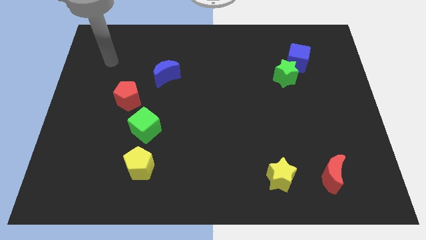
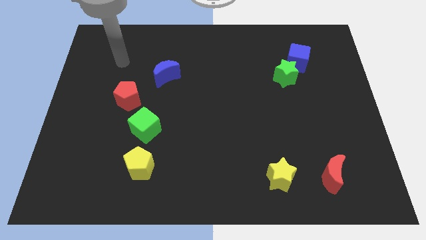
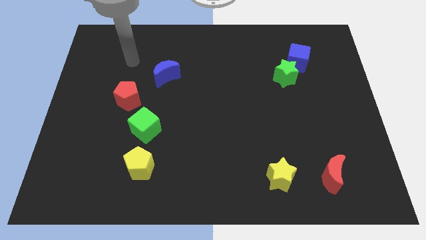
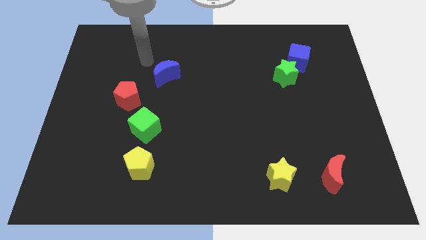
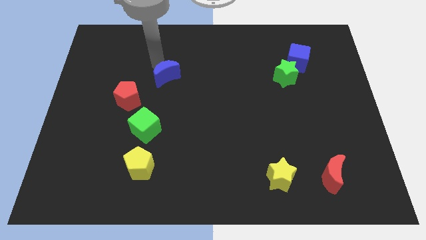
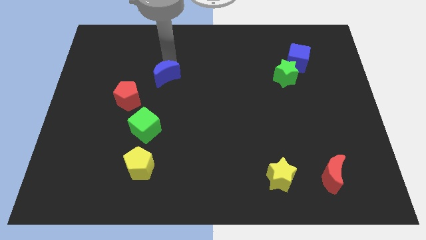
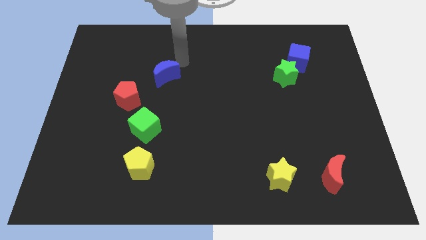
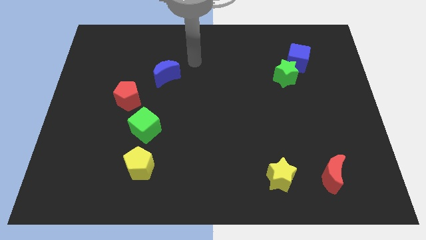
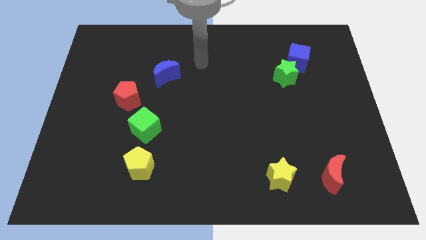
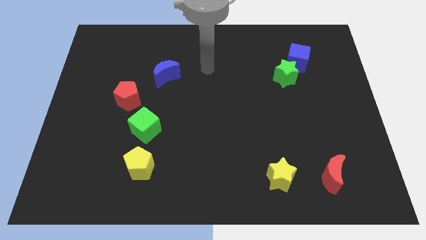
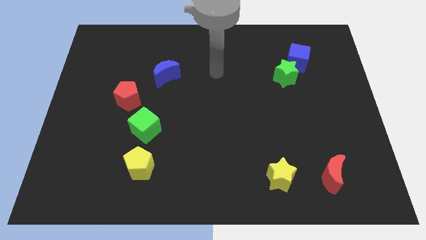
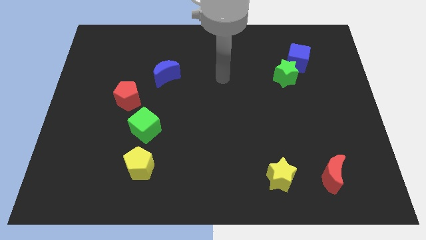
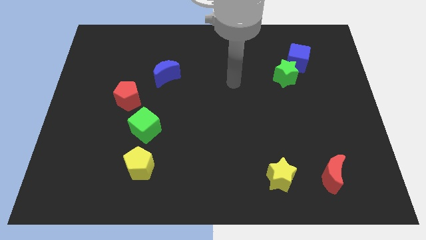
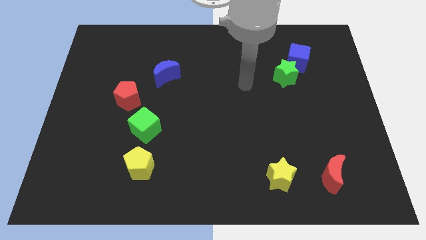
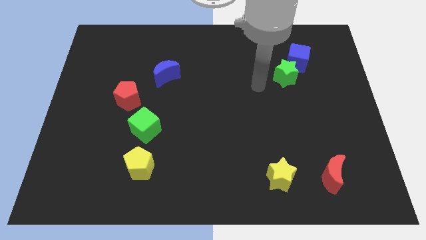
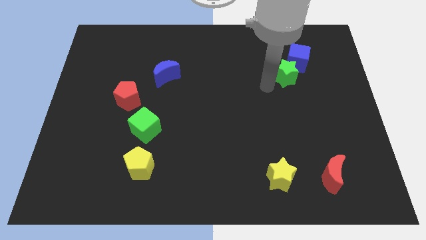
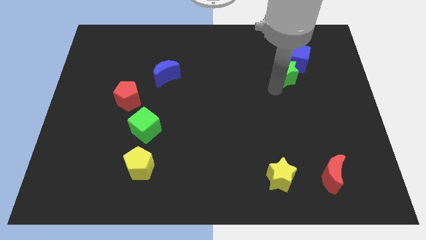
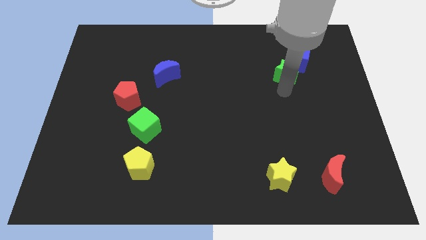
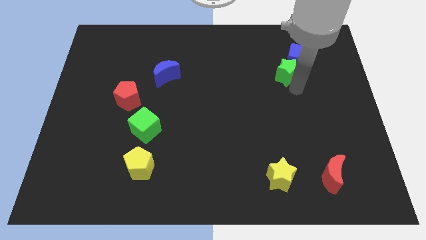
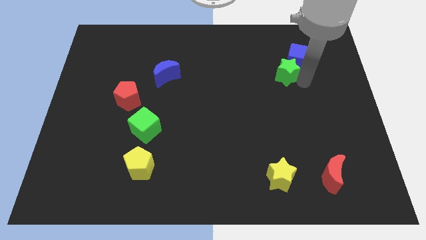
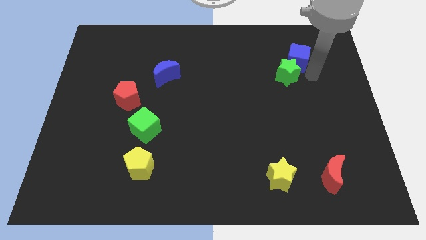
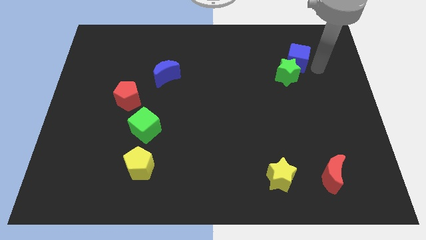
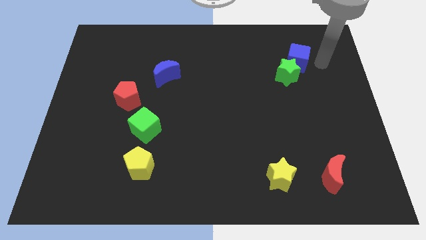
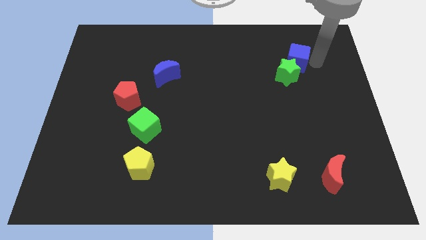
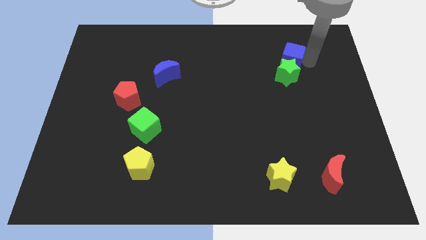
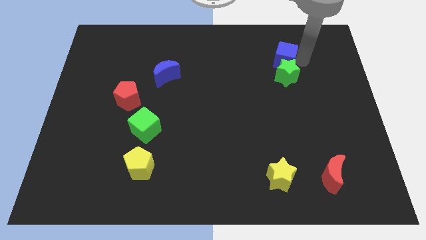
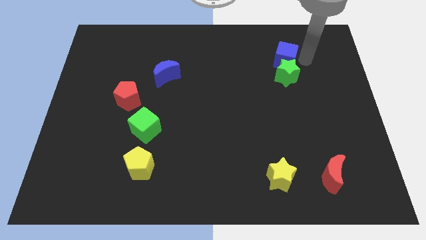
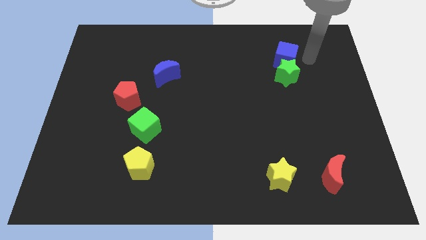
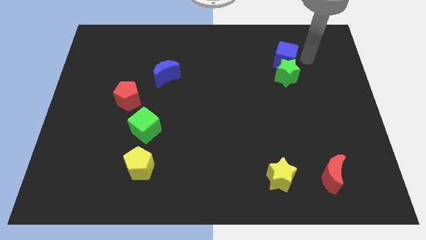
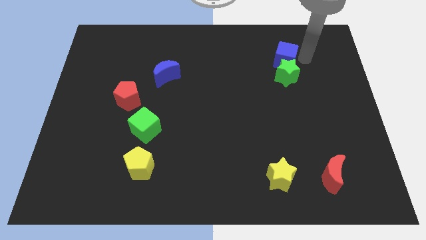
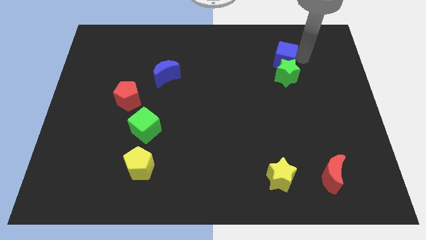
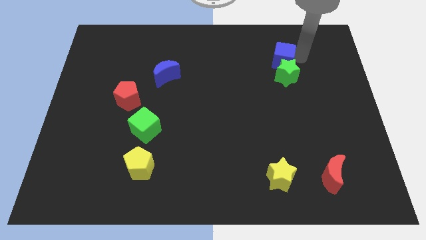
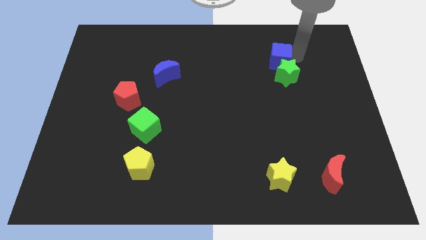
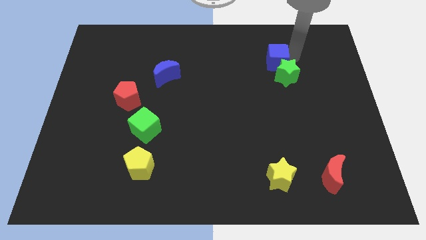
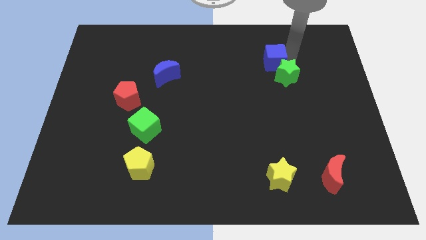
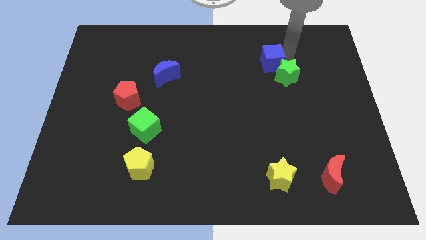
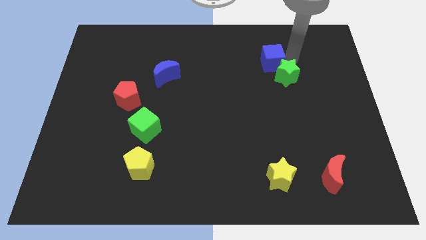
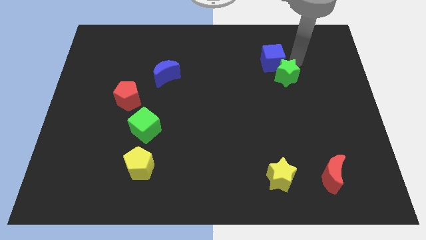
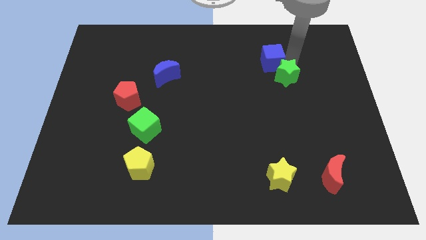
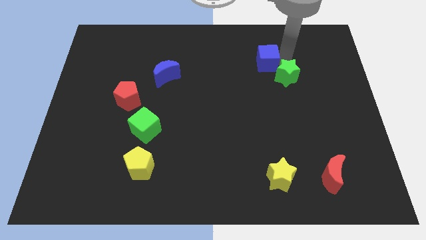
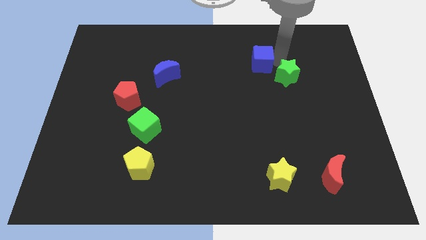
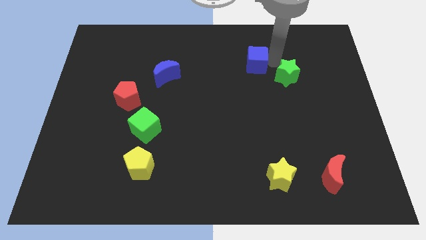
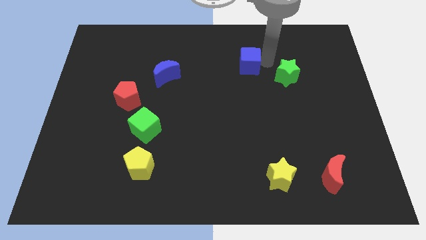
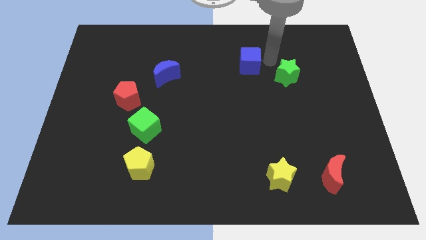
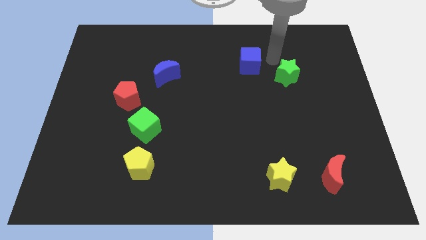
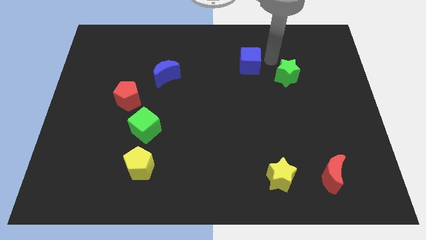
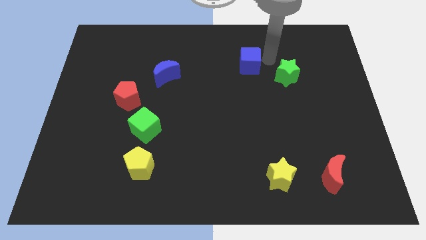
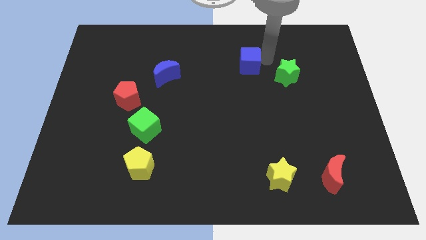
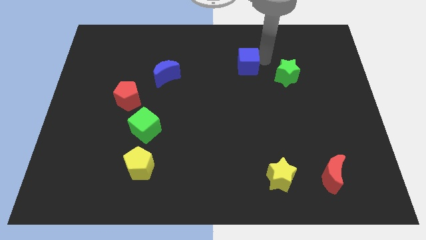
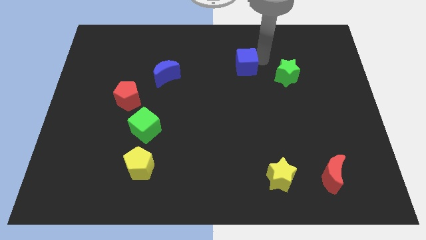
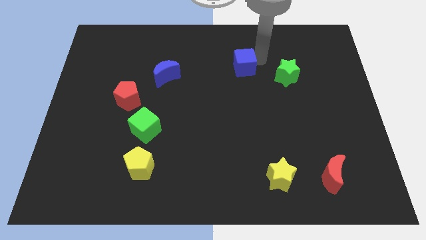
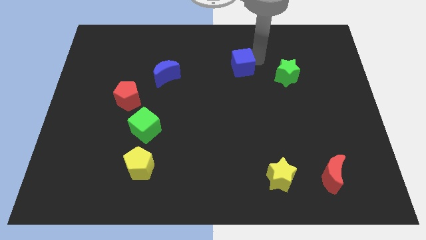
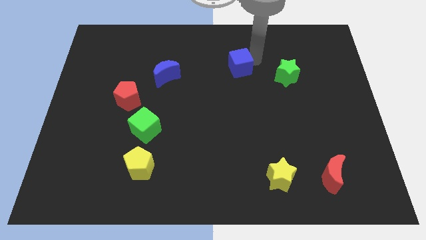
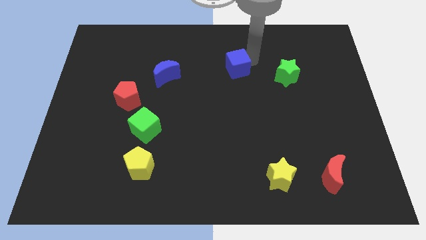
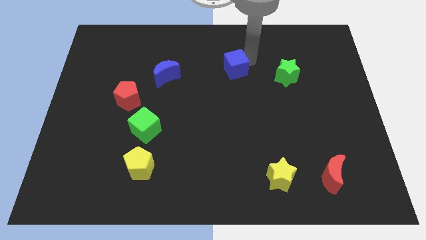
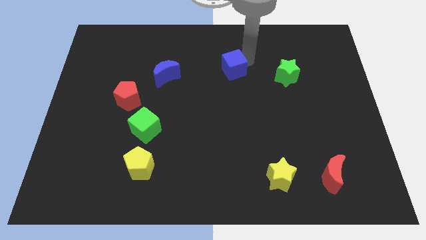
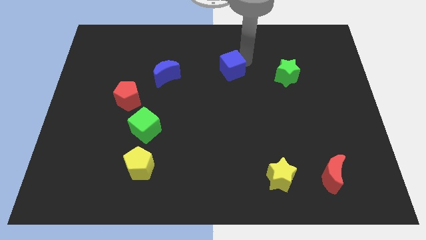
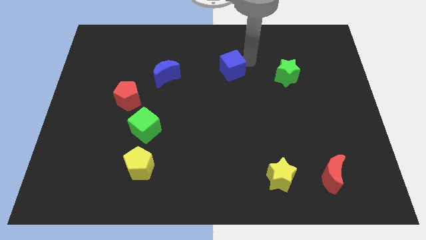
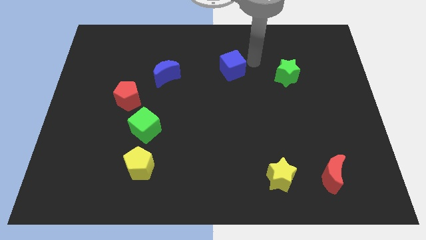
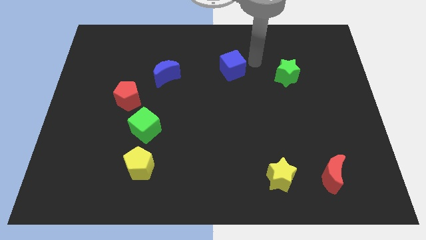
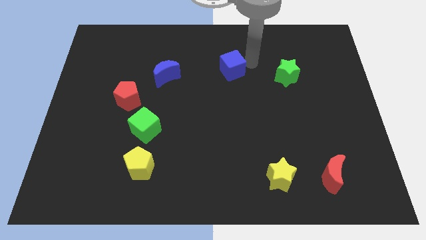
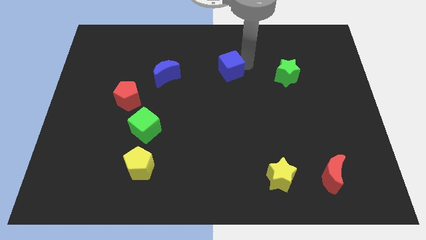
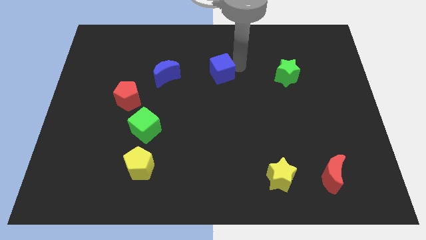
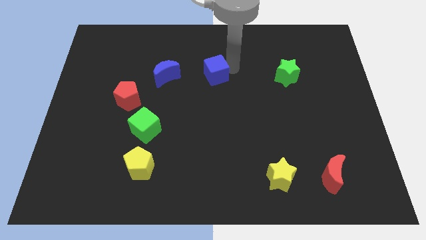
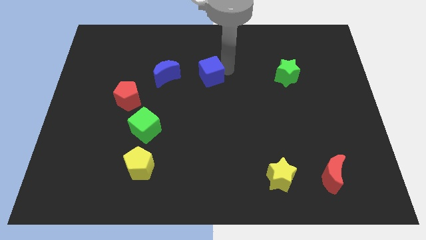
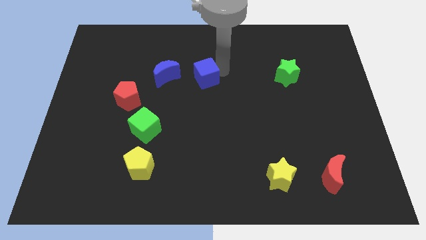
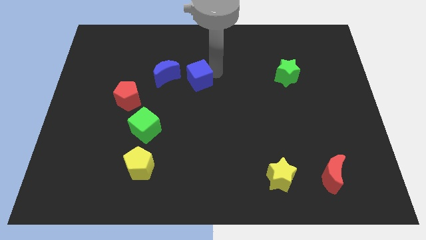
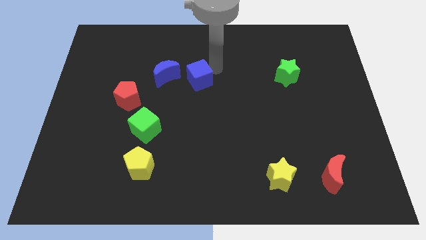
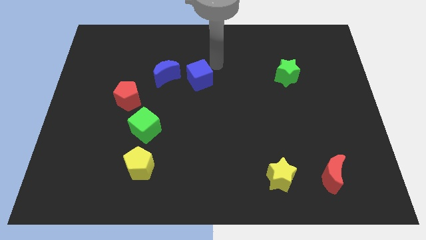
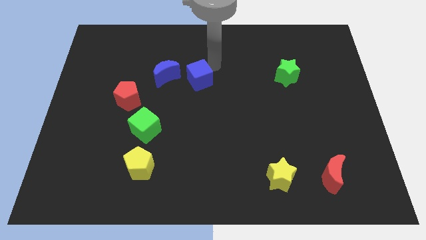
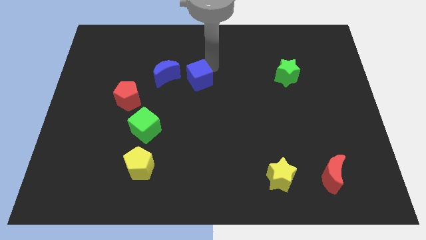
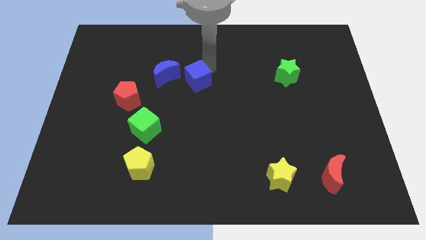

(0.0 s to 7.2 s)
slide the blue cube to the bottom right of the blue moon

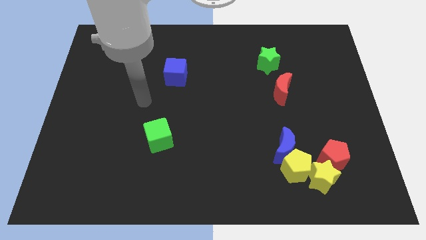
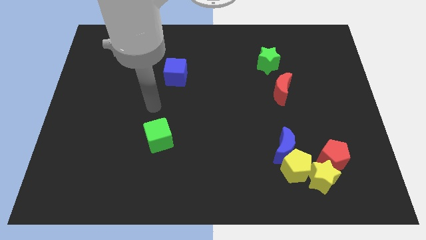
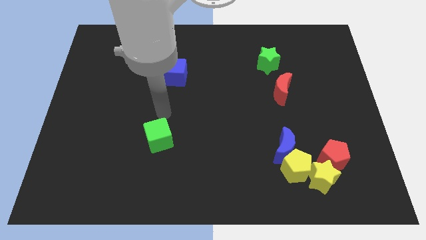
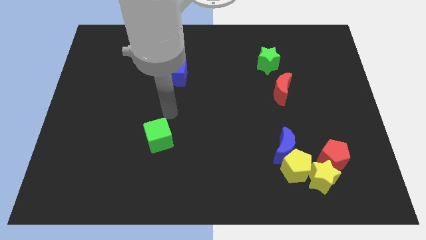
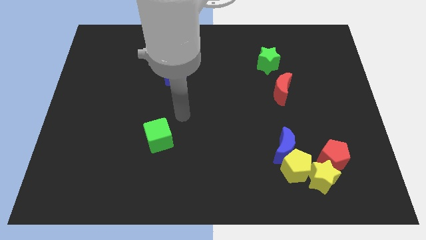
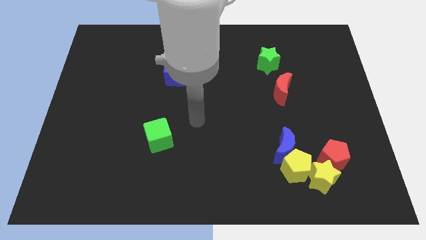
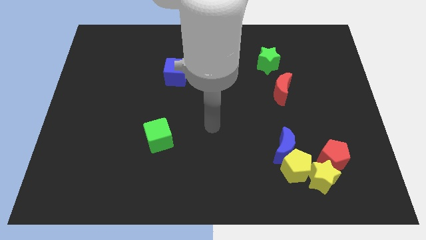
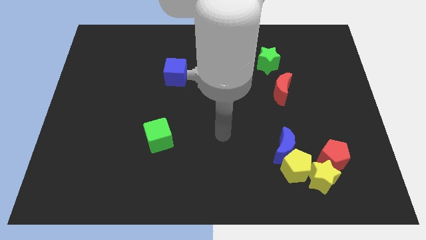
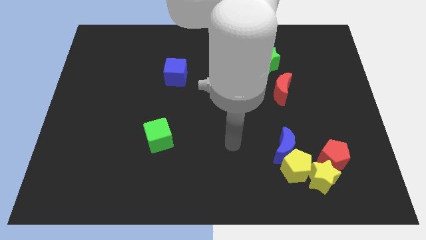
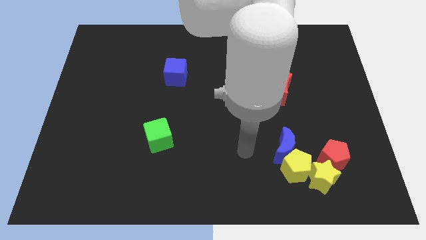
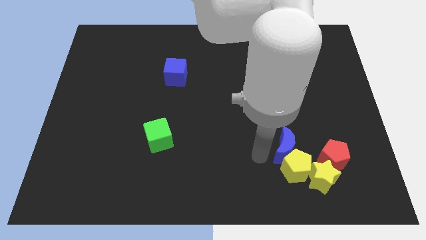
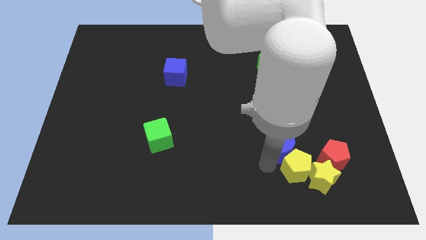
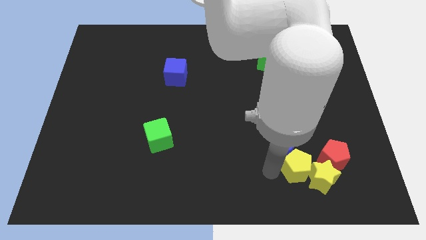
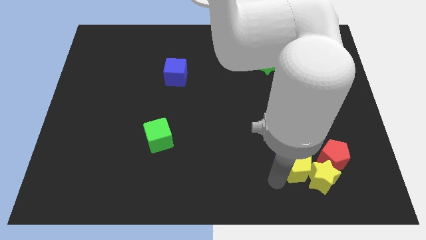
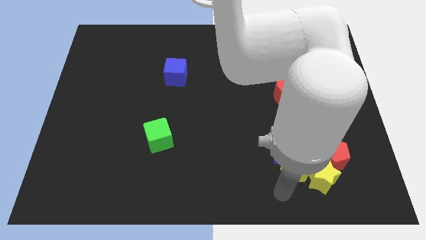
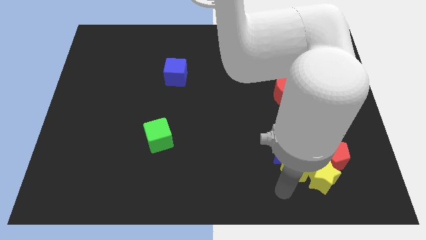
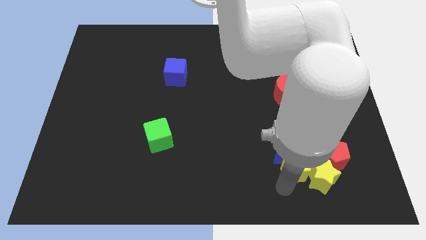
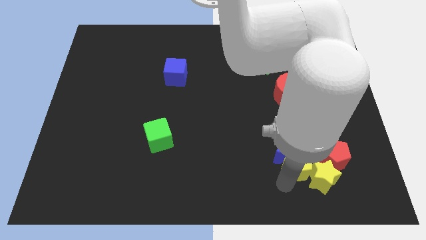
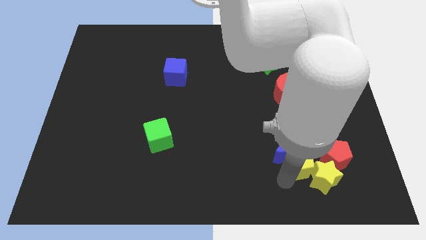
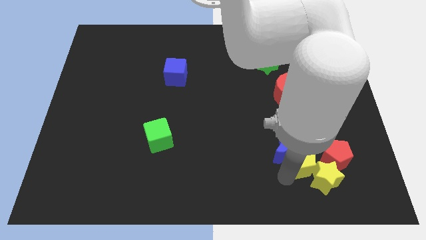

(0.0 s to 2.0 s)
put the yellow pentagon to the top side of the yellow star
